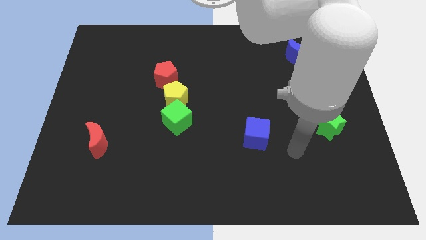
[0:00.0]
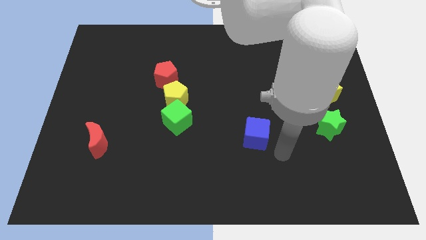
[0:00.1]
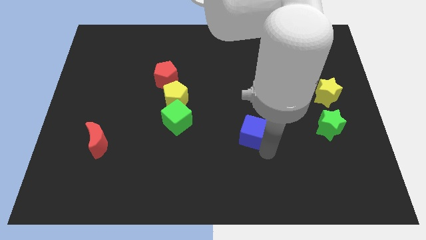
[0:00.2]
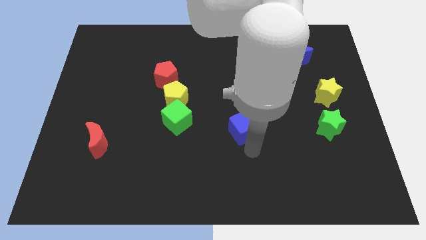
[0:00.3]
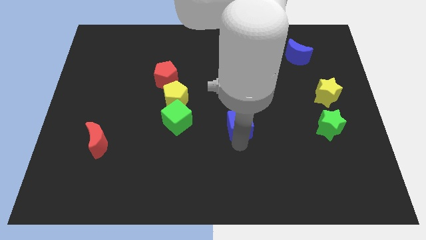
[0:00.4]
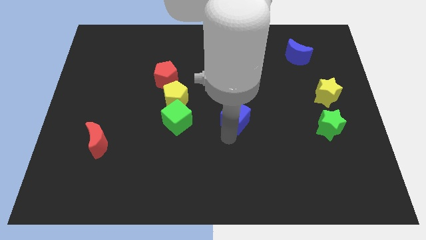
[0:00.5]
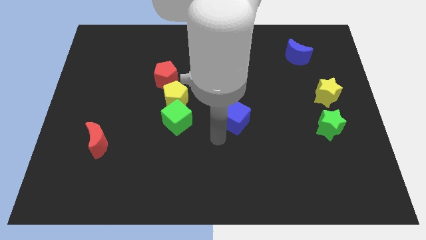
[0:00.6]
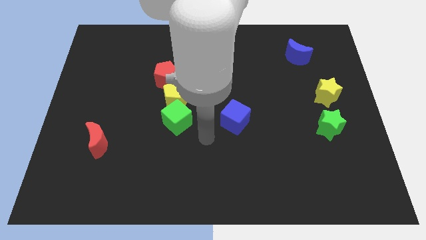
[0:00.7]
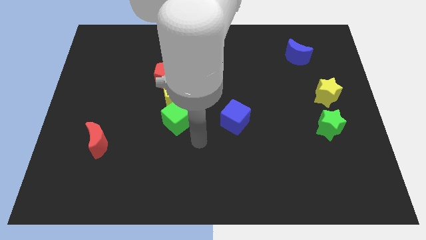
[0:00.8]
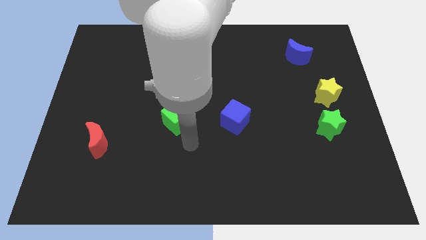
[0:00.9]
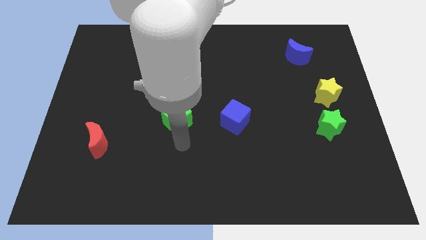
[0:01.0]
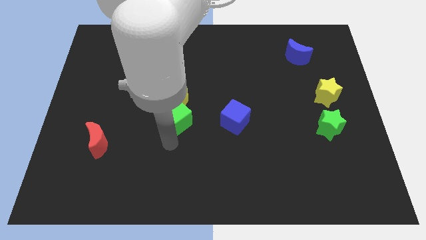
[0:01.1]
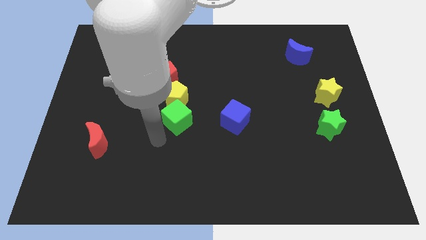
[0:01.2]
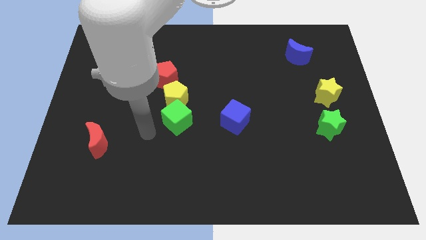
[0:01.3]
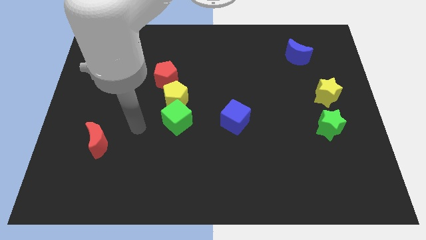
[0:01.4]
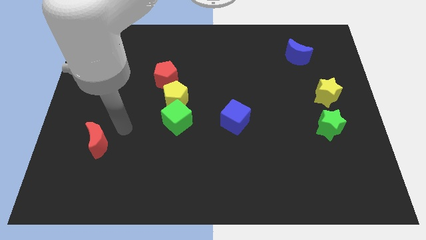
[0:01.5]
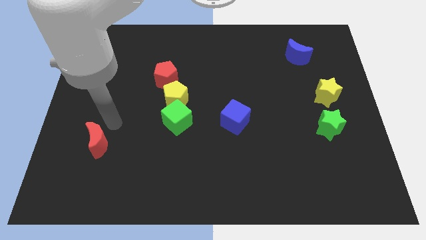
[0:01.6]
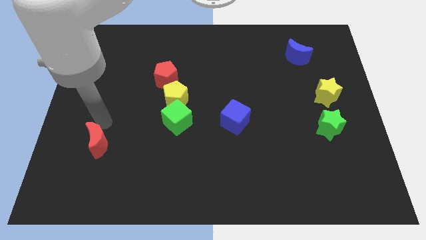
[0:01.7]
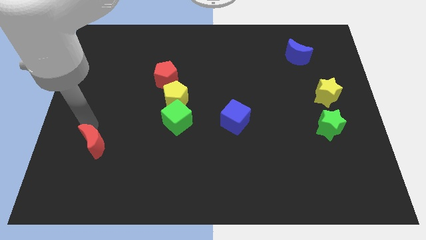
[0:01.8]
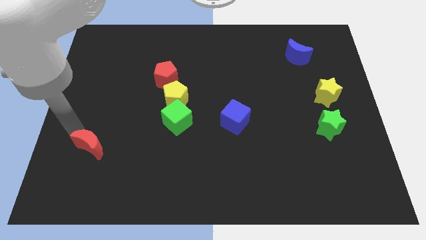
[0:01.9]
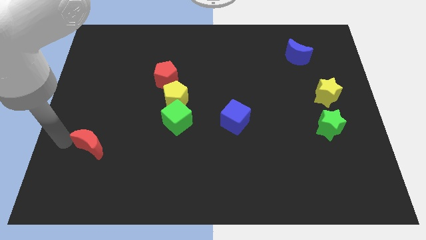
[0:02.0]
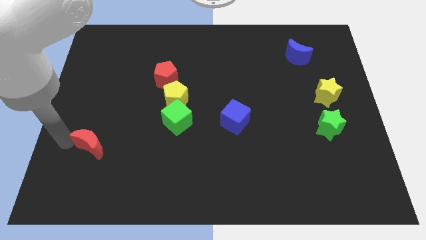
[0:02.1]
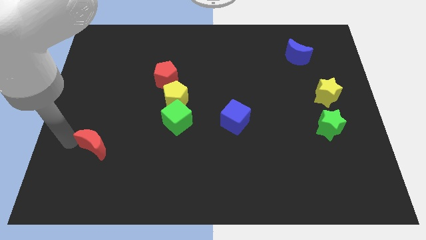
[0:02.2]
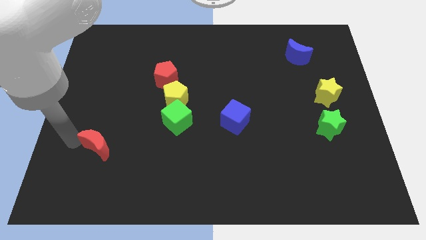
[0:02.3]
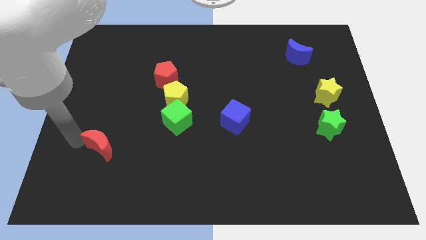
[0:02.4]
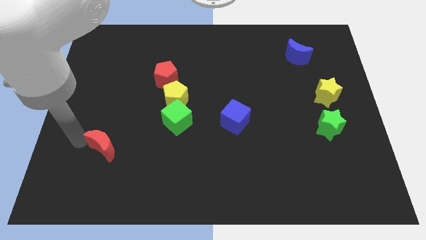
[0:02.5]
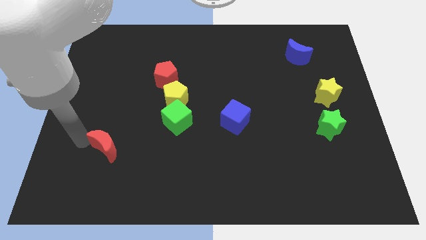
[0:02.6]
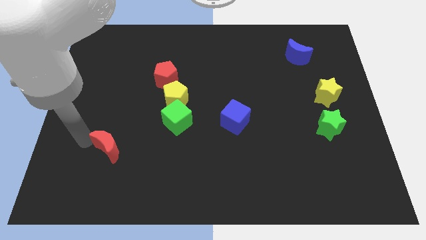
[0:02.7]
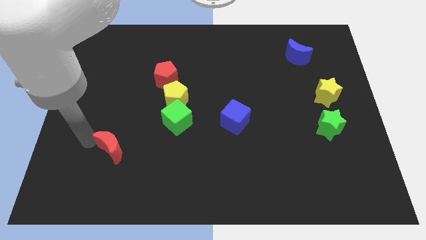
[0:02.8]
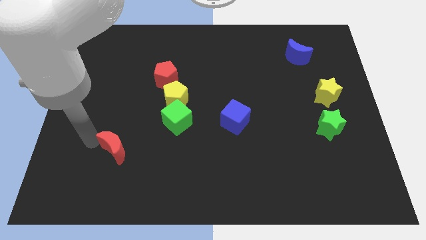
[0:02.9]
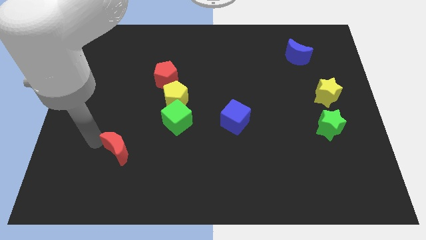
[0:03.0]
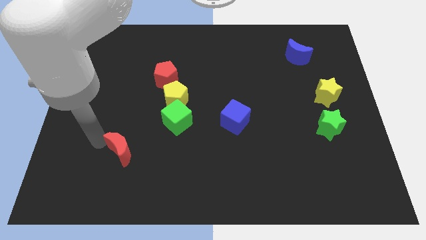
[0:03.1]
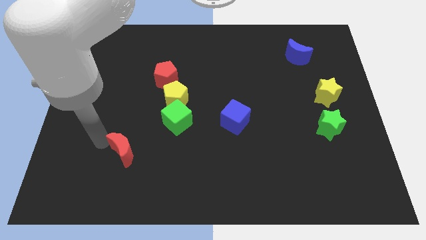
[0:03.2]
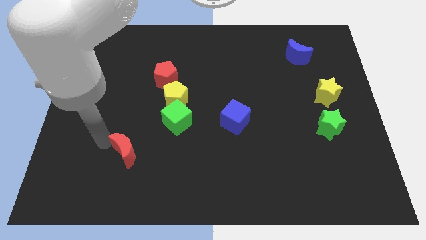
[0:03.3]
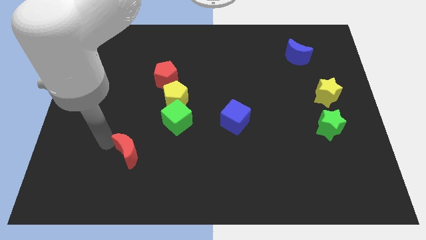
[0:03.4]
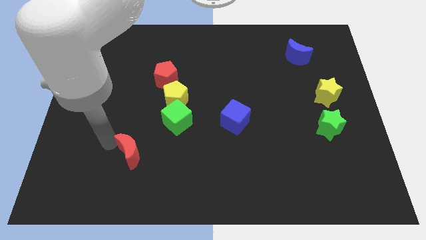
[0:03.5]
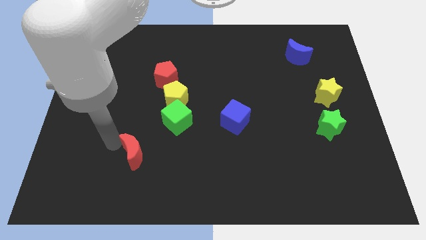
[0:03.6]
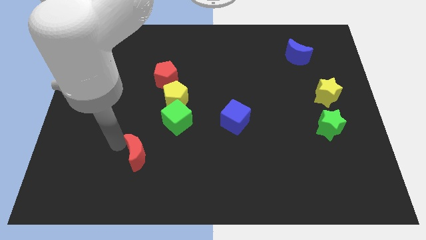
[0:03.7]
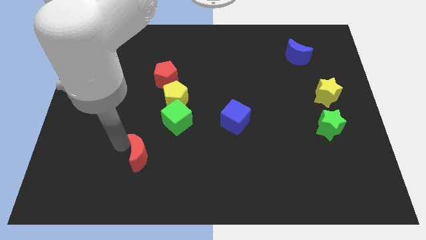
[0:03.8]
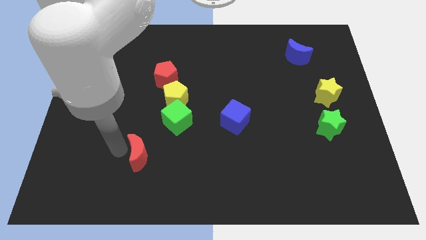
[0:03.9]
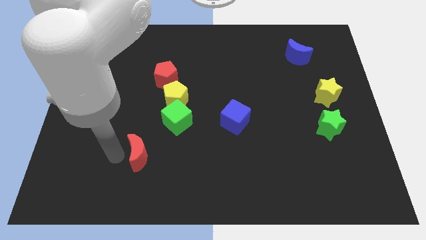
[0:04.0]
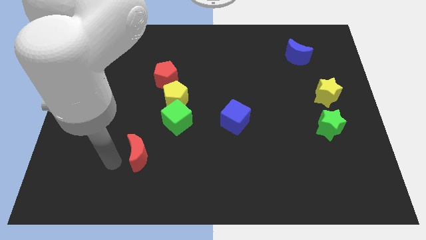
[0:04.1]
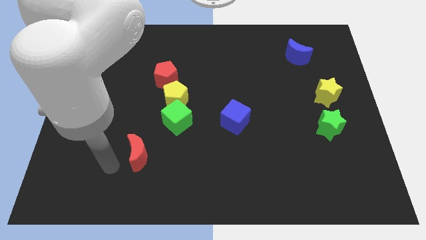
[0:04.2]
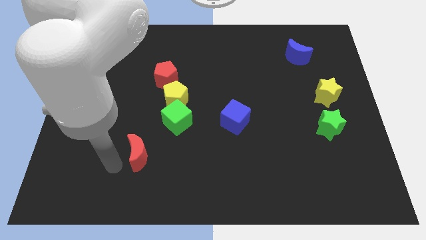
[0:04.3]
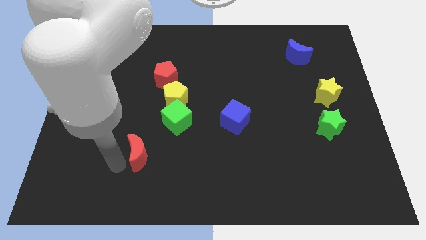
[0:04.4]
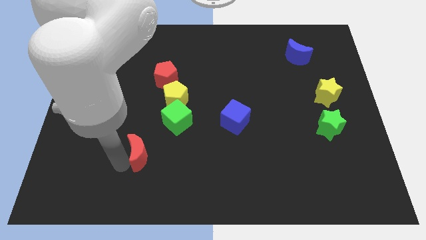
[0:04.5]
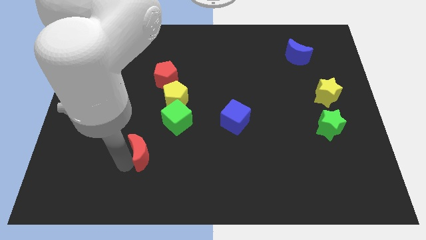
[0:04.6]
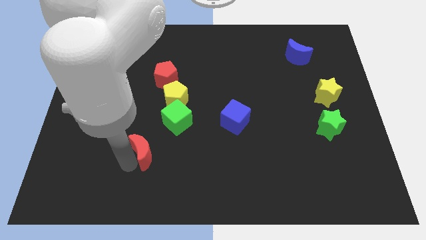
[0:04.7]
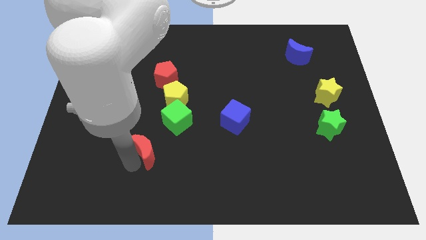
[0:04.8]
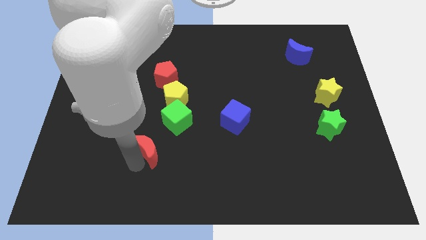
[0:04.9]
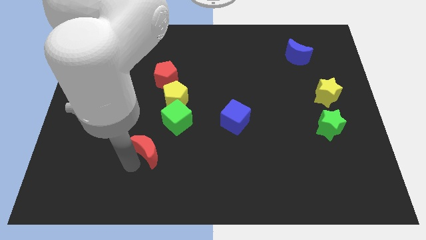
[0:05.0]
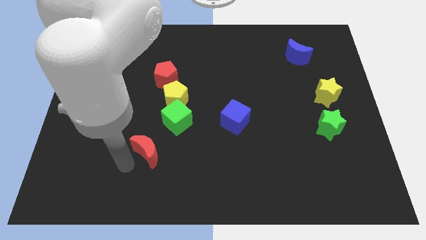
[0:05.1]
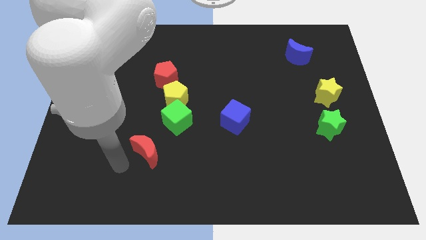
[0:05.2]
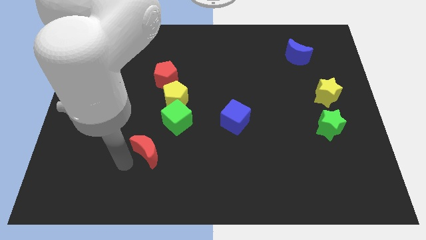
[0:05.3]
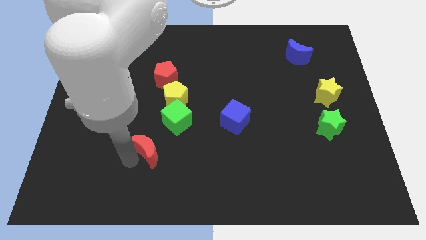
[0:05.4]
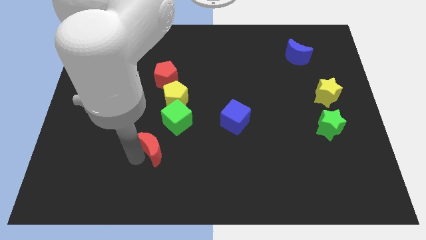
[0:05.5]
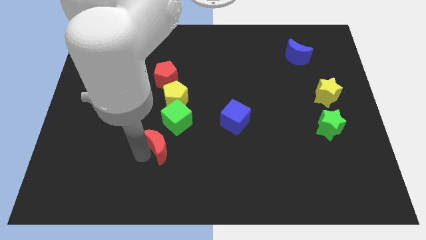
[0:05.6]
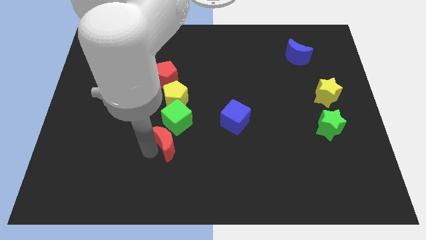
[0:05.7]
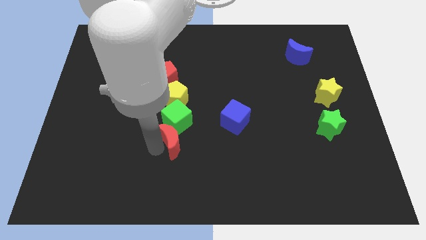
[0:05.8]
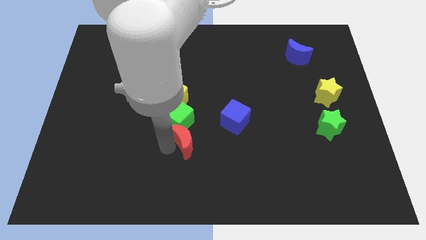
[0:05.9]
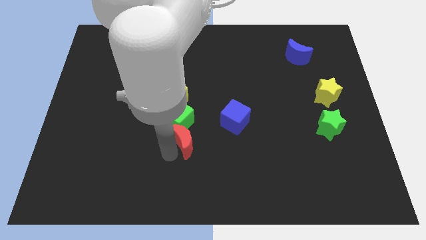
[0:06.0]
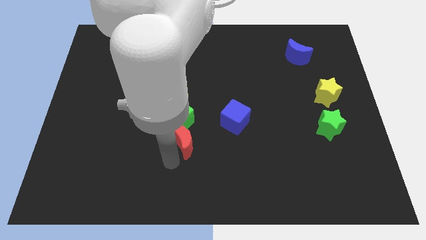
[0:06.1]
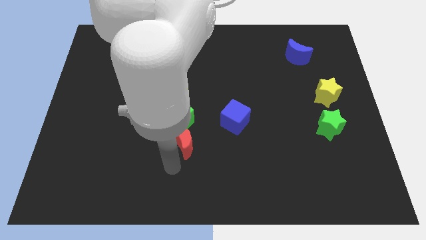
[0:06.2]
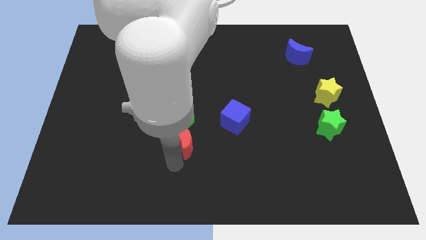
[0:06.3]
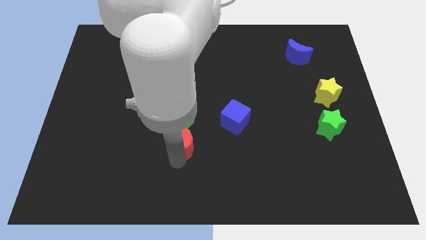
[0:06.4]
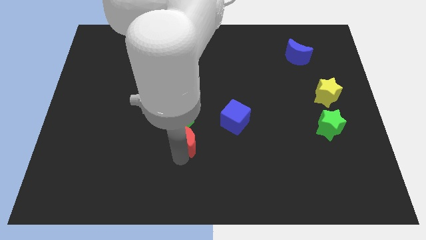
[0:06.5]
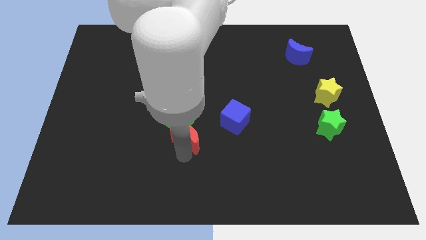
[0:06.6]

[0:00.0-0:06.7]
push the red moon to the center of the board

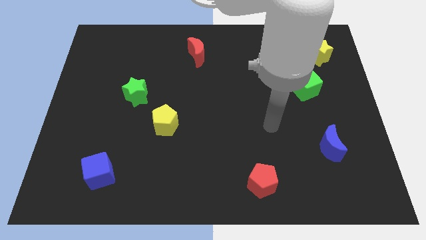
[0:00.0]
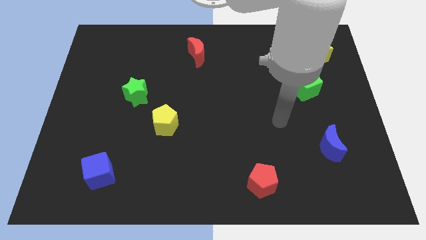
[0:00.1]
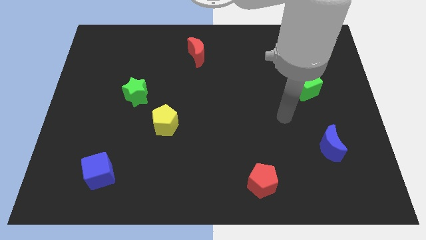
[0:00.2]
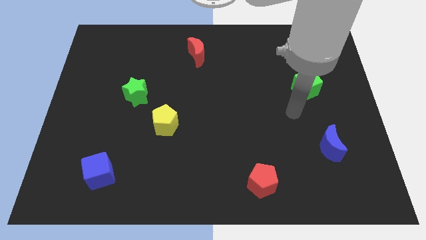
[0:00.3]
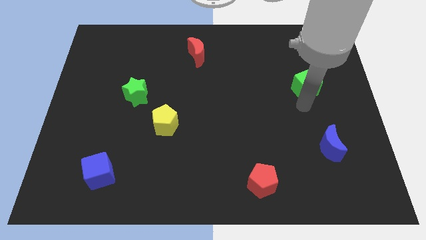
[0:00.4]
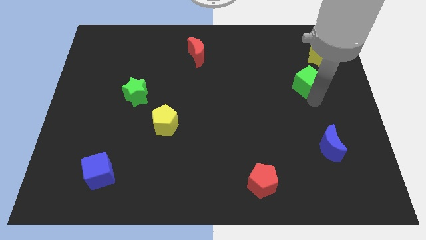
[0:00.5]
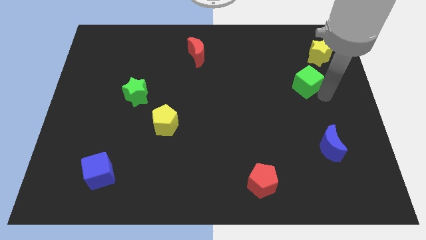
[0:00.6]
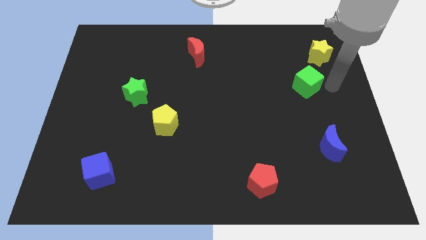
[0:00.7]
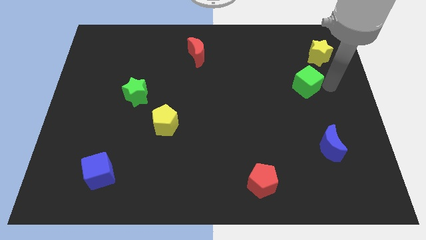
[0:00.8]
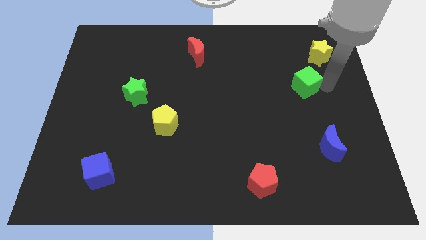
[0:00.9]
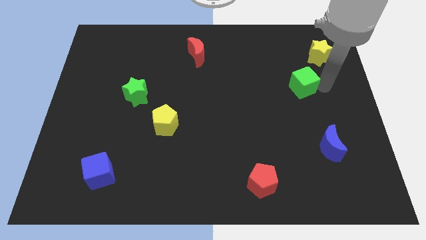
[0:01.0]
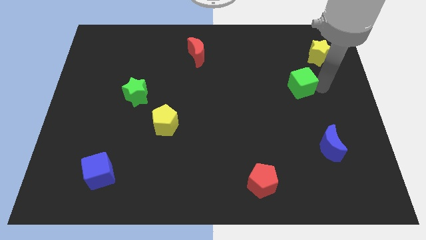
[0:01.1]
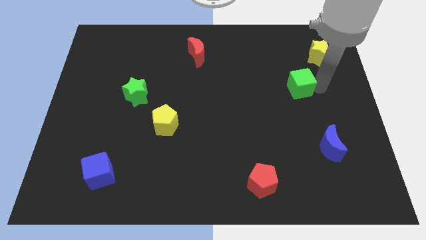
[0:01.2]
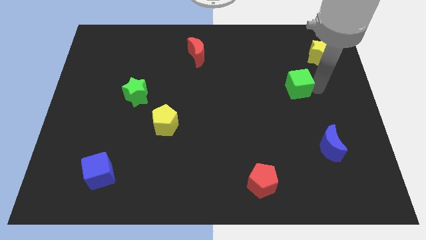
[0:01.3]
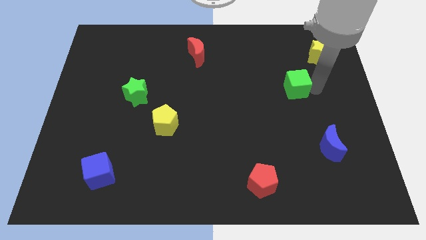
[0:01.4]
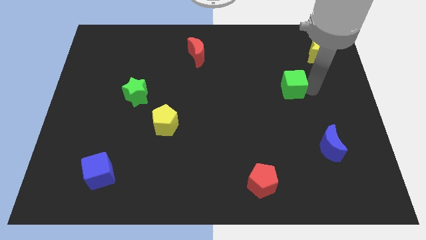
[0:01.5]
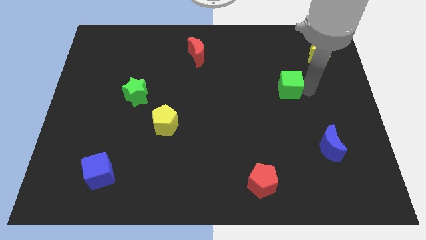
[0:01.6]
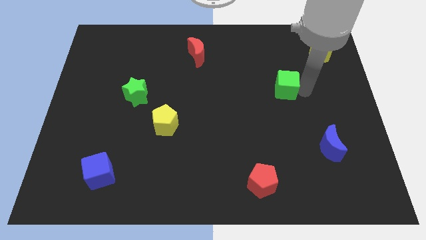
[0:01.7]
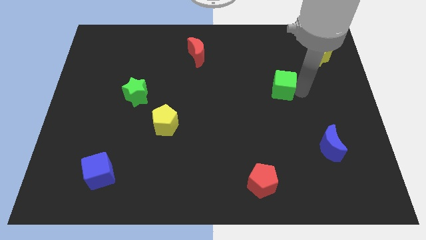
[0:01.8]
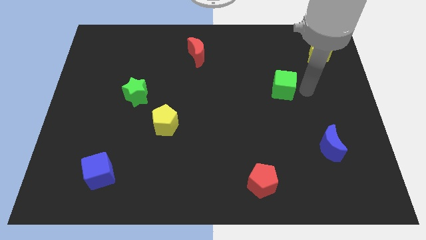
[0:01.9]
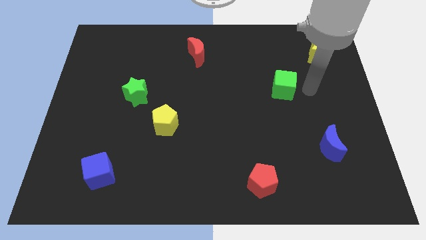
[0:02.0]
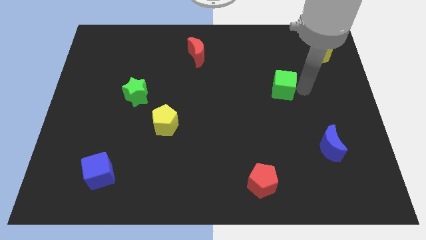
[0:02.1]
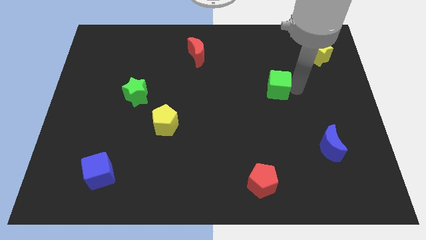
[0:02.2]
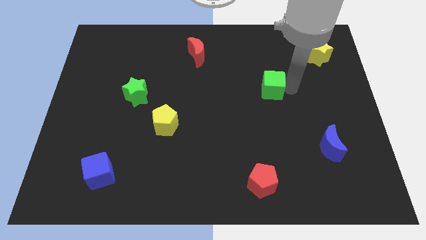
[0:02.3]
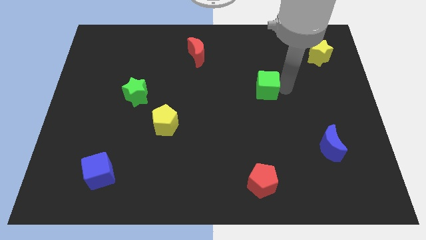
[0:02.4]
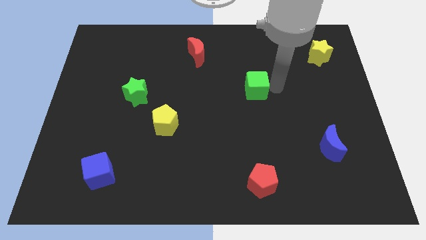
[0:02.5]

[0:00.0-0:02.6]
move the green cube to the center
